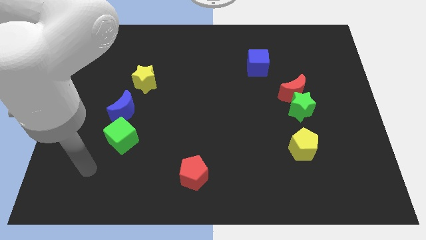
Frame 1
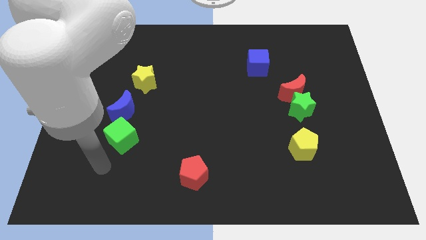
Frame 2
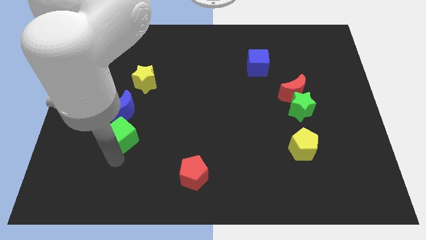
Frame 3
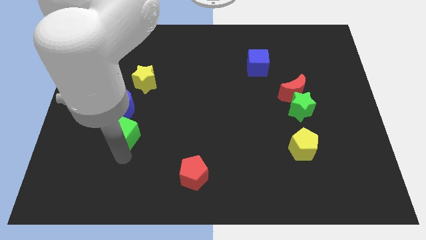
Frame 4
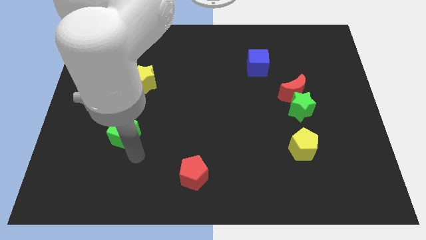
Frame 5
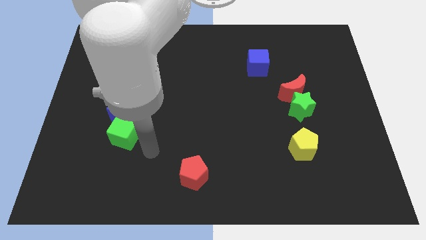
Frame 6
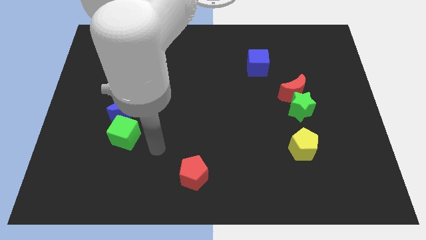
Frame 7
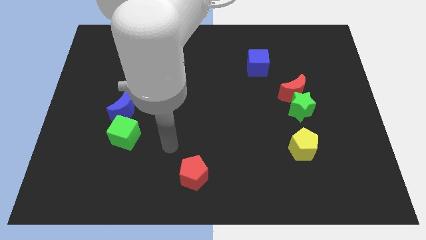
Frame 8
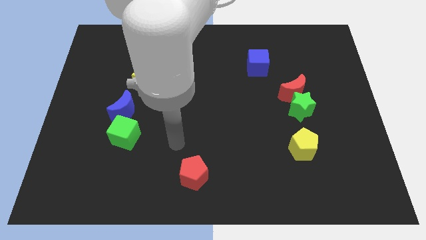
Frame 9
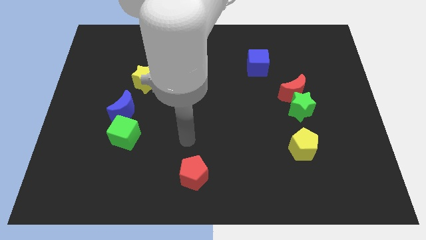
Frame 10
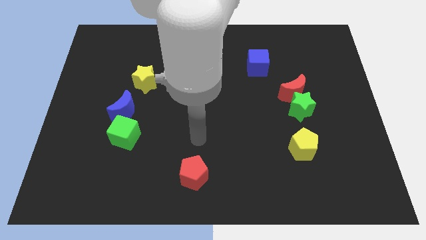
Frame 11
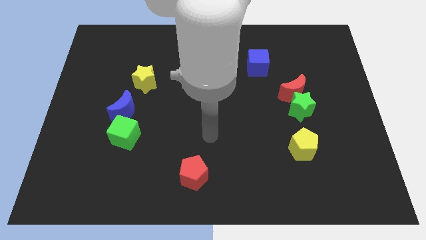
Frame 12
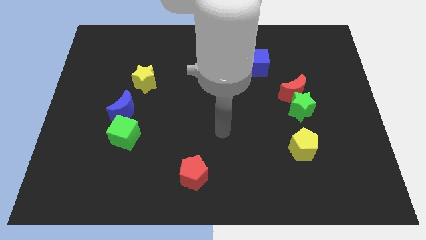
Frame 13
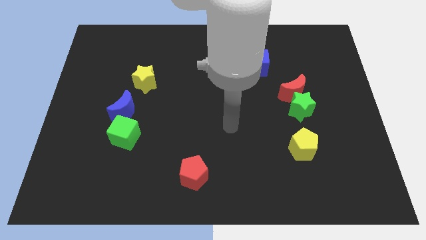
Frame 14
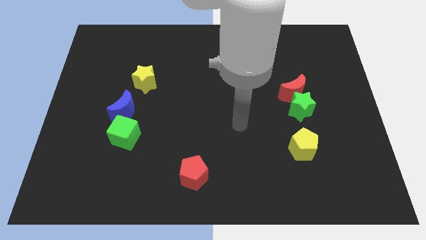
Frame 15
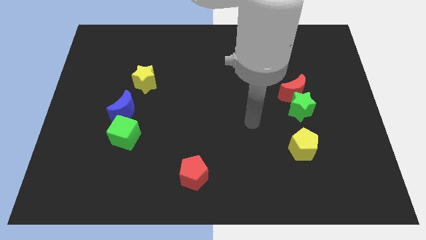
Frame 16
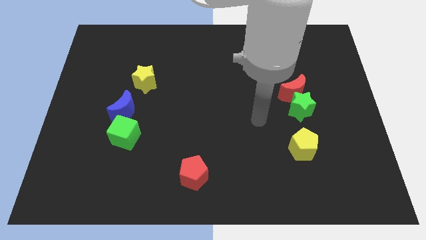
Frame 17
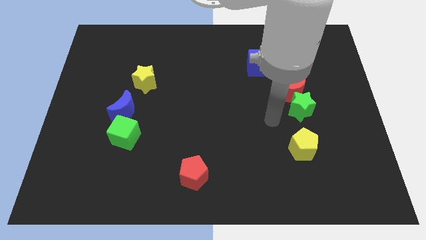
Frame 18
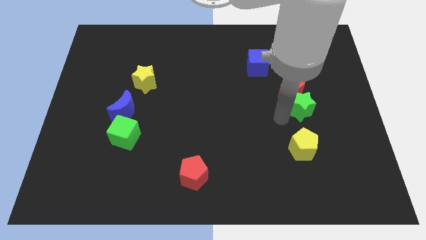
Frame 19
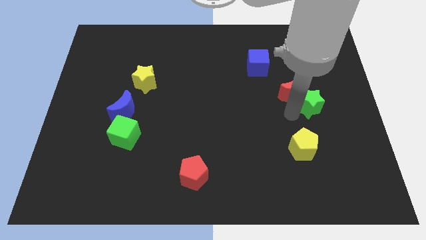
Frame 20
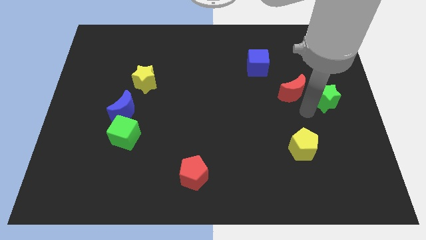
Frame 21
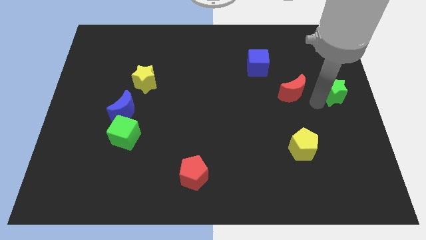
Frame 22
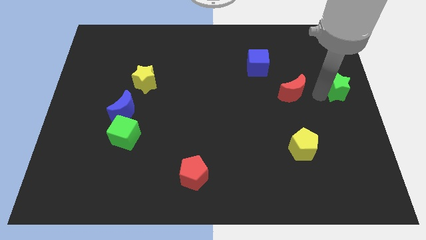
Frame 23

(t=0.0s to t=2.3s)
move the red moon away from the green star

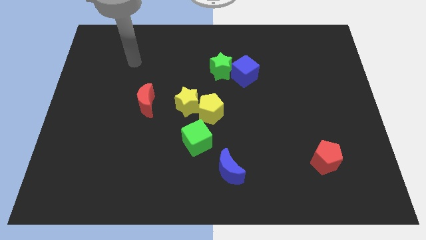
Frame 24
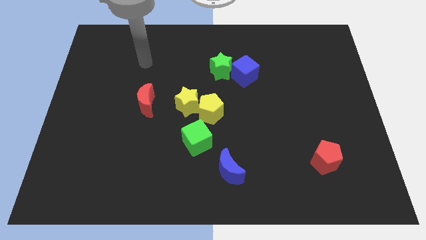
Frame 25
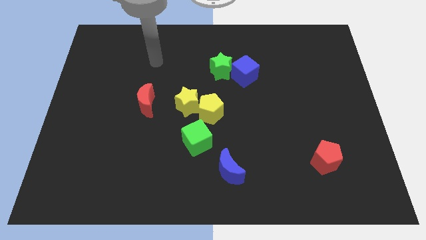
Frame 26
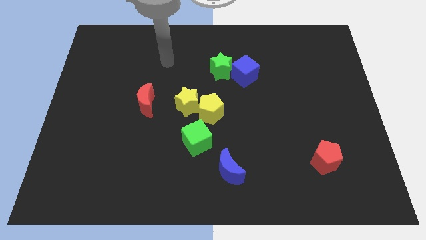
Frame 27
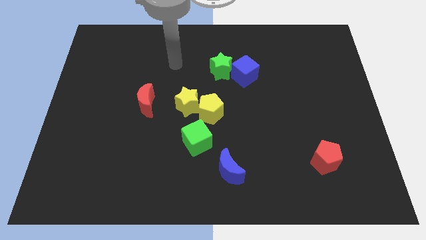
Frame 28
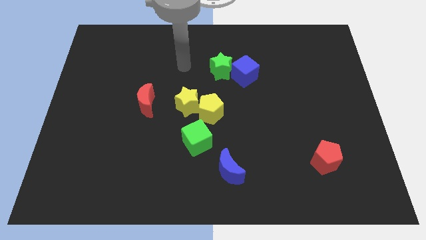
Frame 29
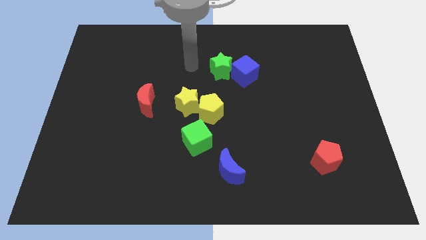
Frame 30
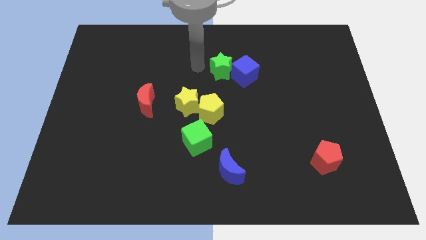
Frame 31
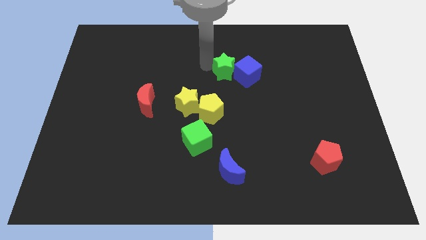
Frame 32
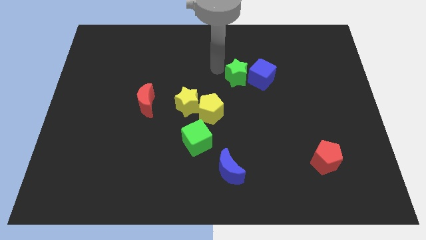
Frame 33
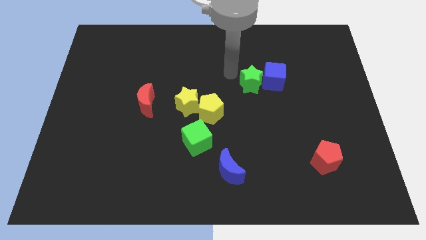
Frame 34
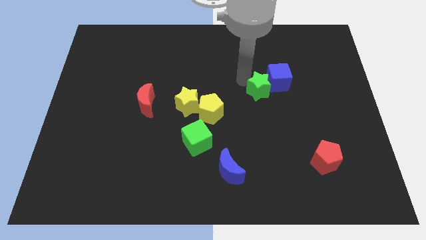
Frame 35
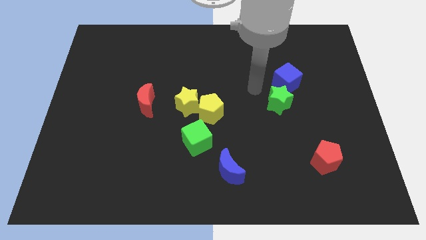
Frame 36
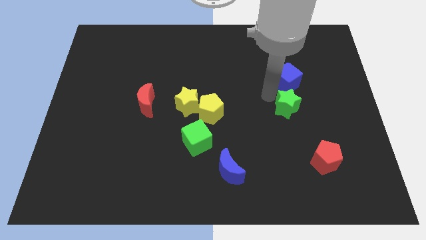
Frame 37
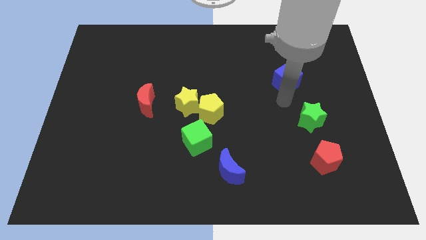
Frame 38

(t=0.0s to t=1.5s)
pull the blue cube apart from the green star

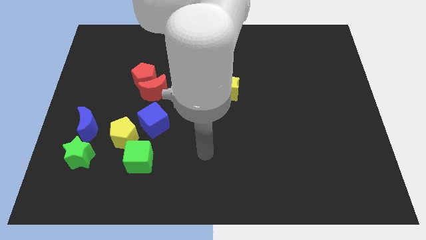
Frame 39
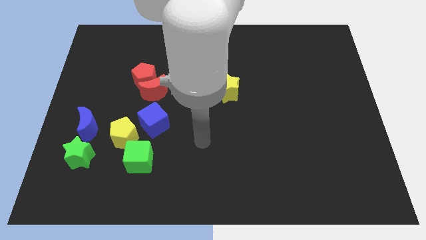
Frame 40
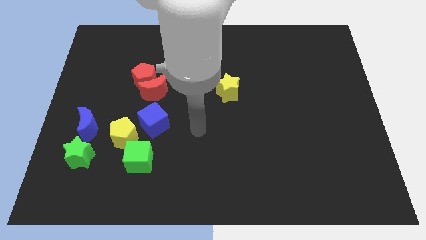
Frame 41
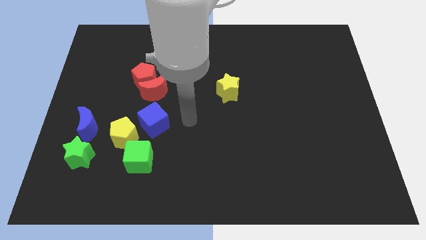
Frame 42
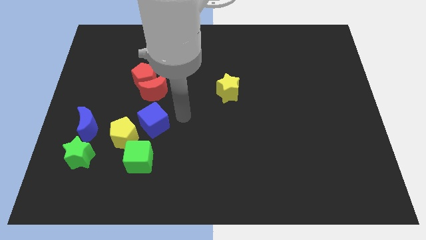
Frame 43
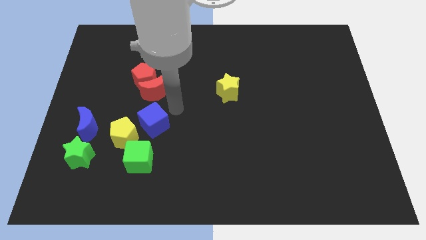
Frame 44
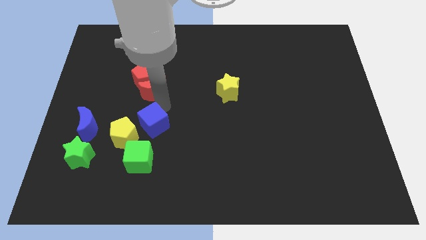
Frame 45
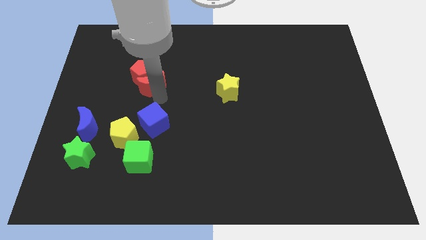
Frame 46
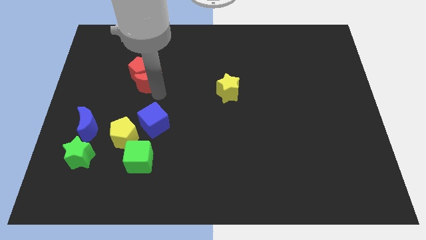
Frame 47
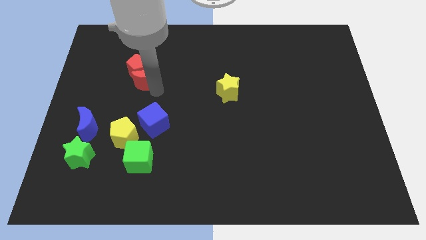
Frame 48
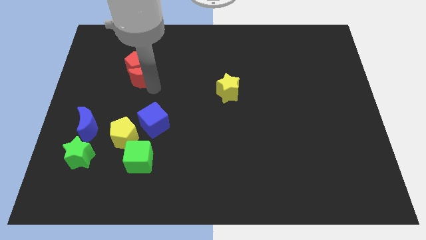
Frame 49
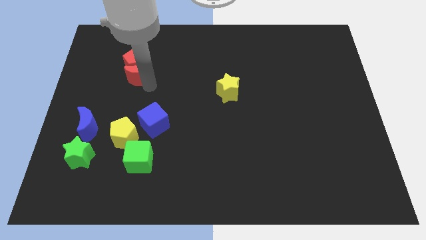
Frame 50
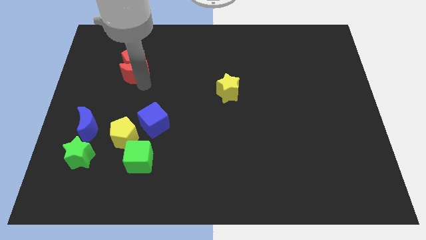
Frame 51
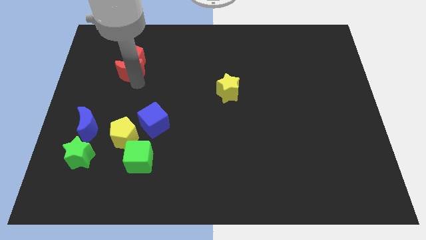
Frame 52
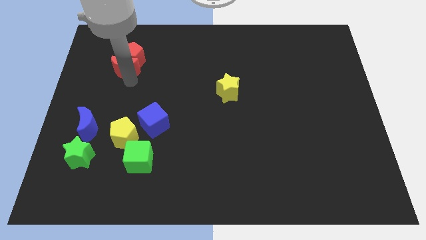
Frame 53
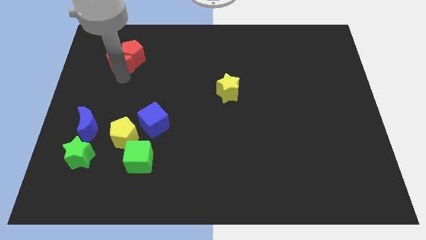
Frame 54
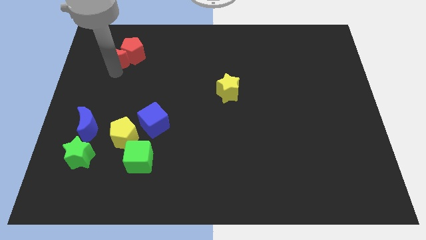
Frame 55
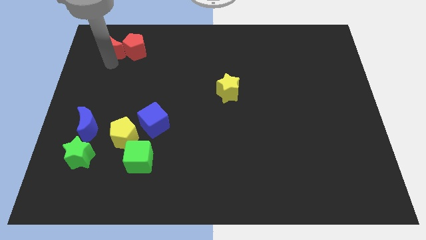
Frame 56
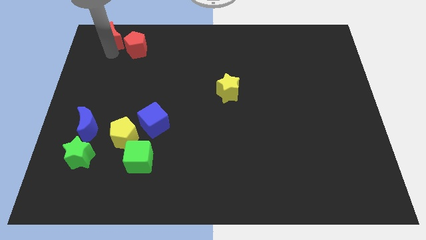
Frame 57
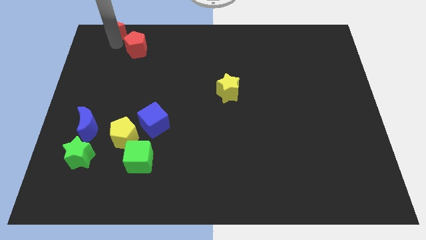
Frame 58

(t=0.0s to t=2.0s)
pull the red pentagon apart from the red moon

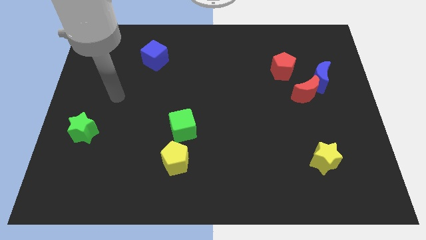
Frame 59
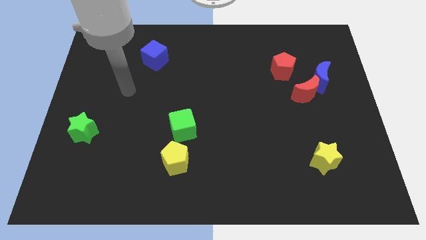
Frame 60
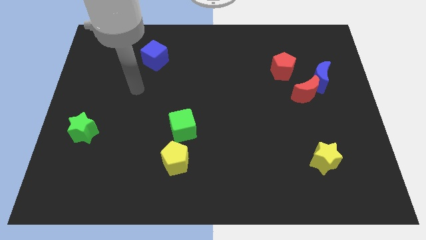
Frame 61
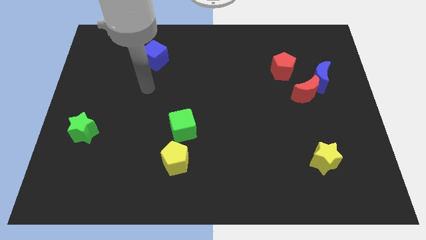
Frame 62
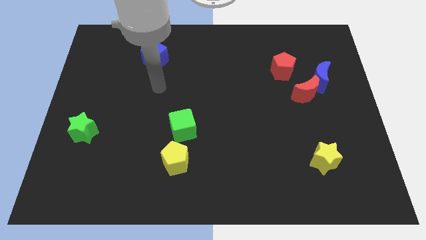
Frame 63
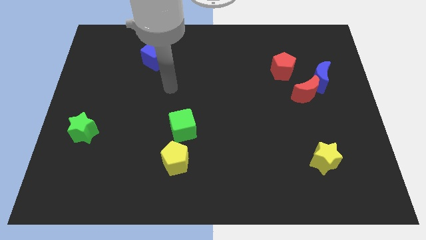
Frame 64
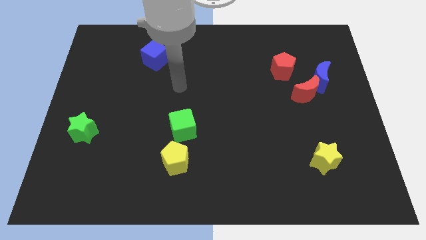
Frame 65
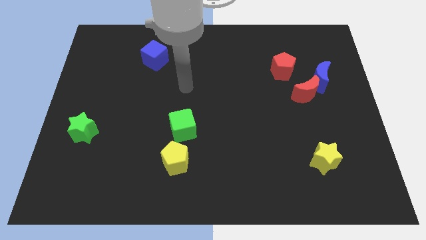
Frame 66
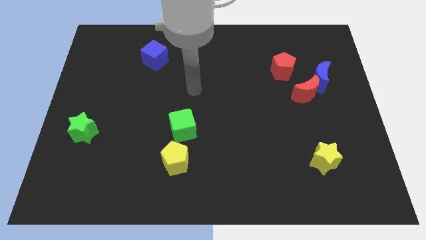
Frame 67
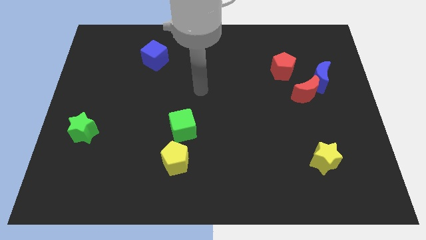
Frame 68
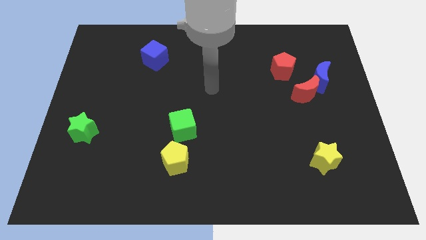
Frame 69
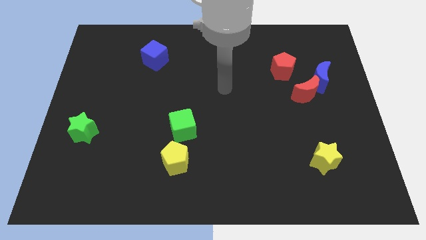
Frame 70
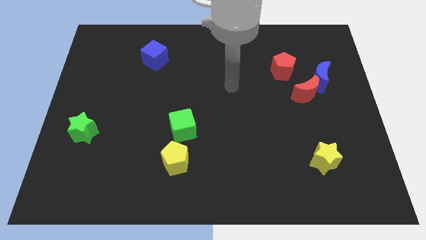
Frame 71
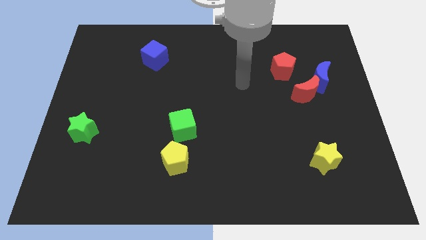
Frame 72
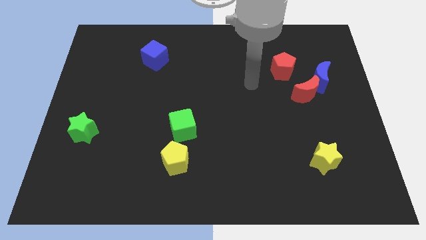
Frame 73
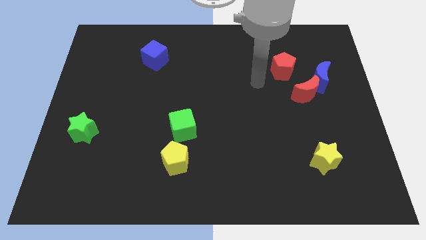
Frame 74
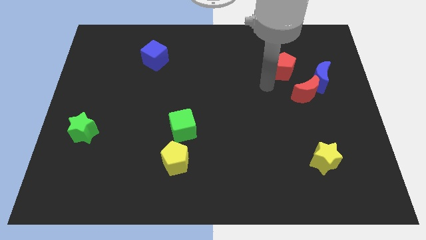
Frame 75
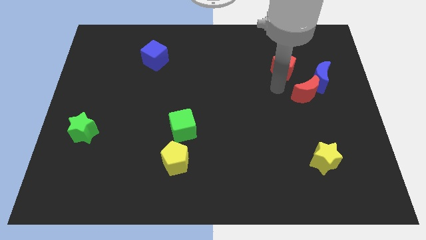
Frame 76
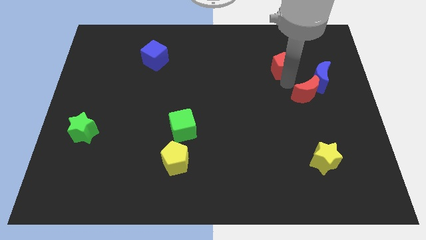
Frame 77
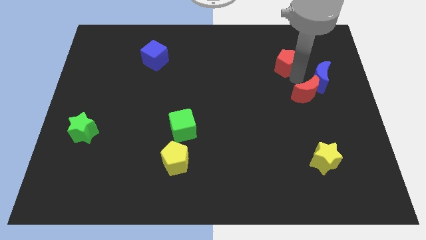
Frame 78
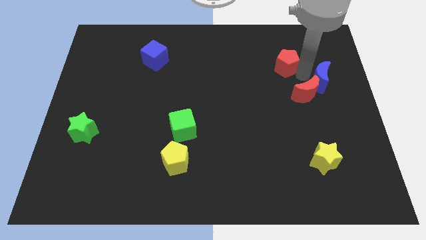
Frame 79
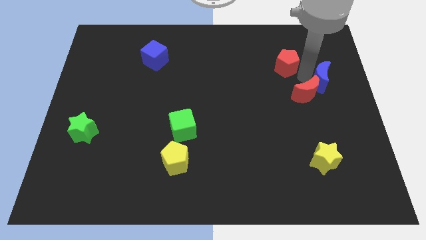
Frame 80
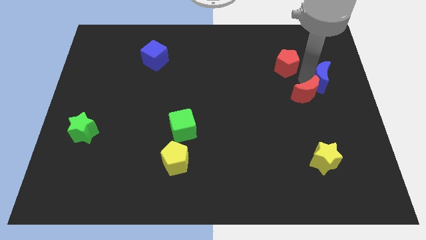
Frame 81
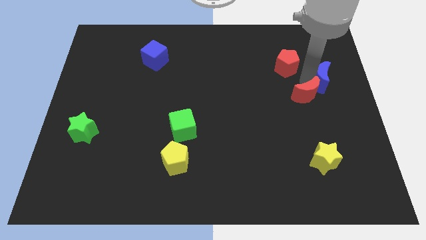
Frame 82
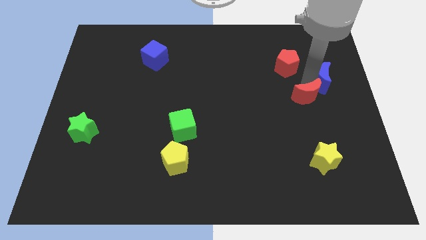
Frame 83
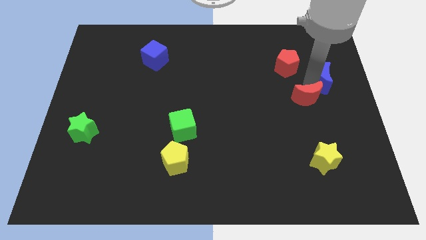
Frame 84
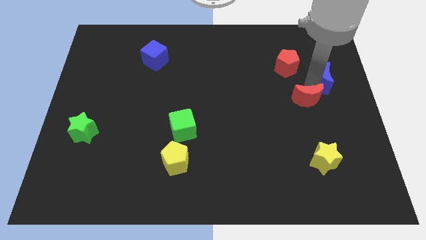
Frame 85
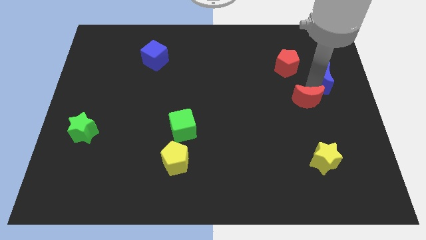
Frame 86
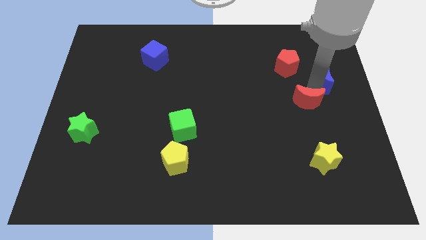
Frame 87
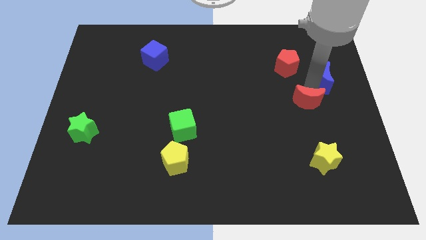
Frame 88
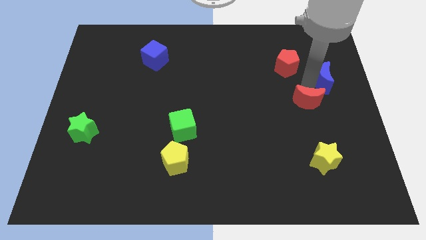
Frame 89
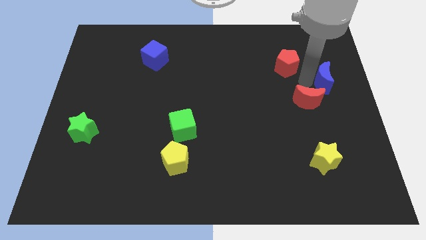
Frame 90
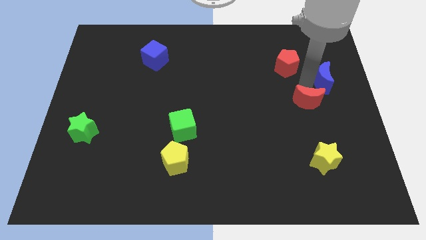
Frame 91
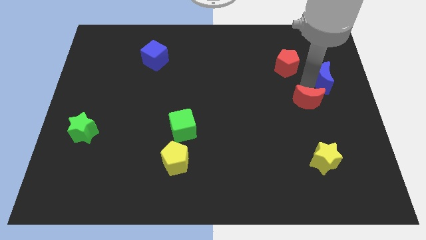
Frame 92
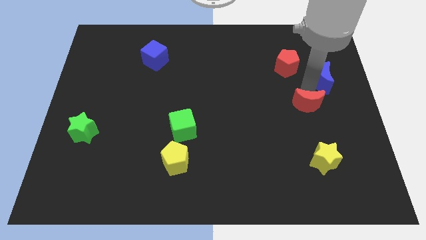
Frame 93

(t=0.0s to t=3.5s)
move the red moon away from the blue moon and red pentagon
